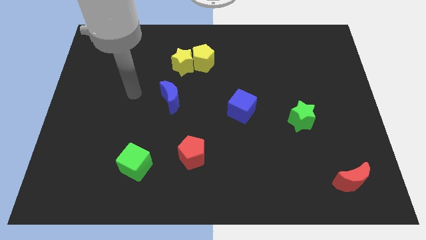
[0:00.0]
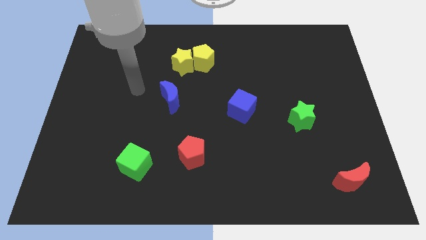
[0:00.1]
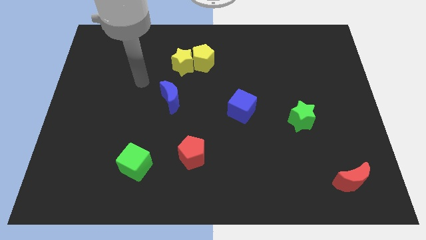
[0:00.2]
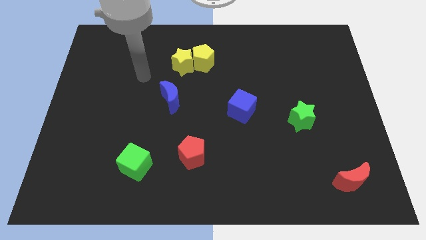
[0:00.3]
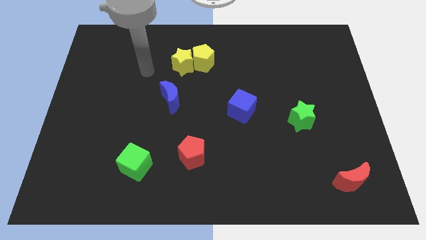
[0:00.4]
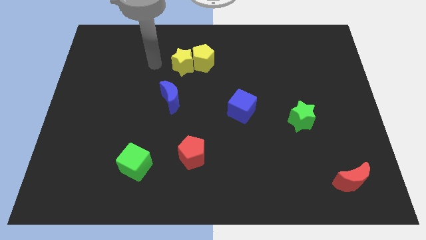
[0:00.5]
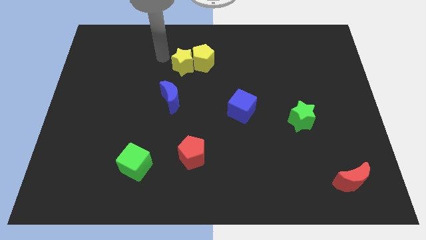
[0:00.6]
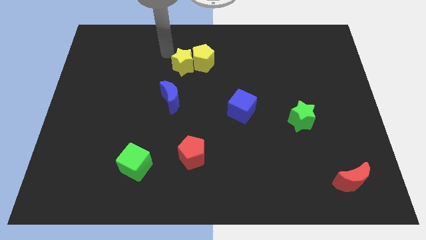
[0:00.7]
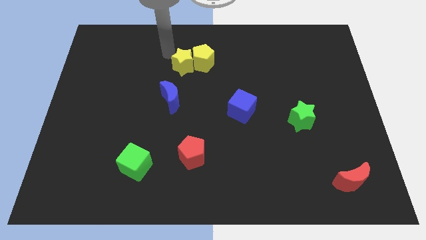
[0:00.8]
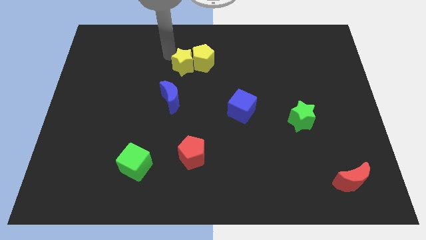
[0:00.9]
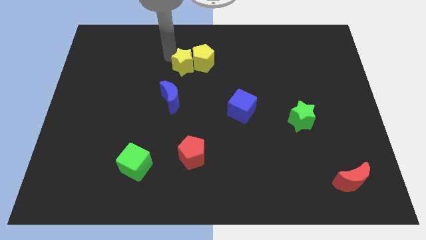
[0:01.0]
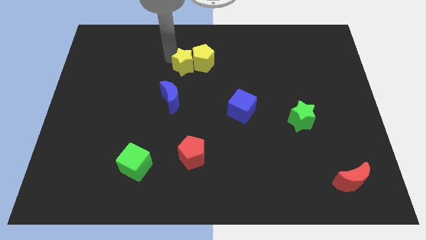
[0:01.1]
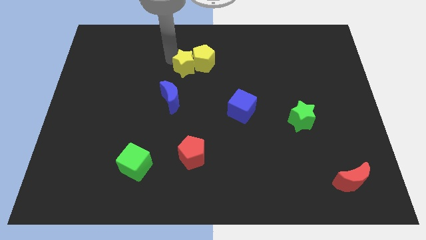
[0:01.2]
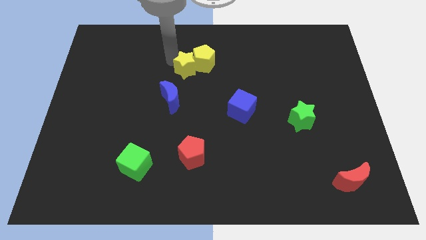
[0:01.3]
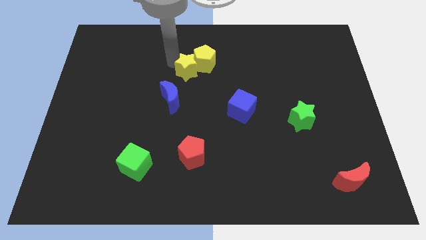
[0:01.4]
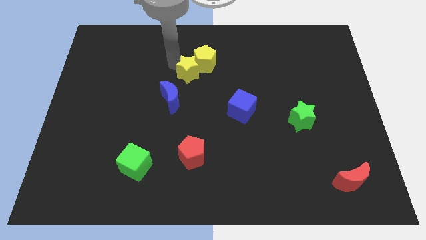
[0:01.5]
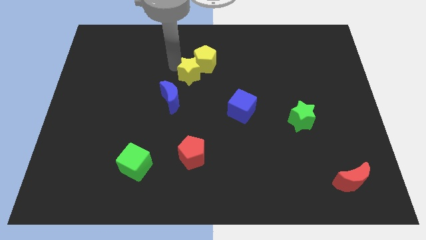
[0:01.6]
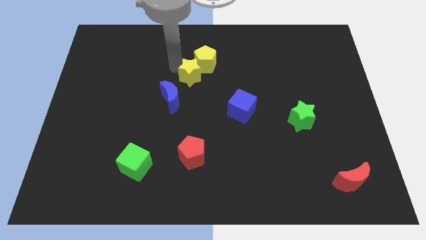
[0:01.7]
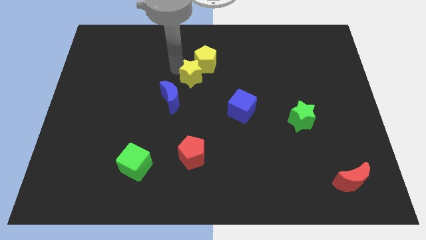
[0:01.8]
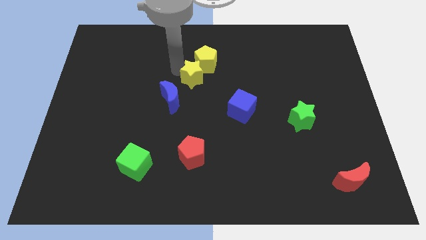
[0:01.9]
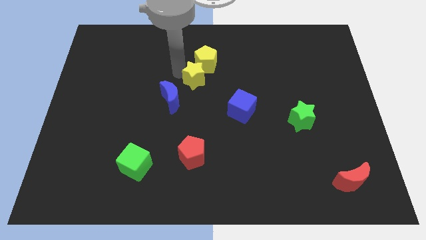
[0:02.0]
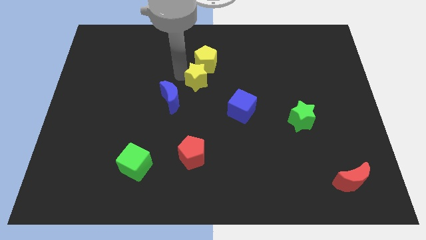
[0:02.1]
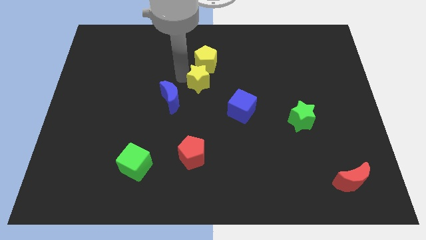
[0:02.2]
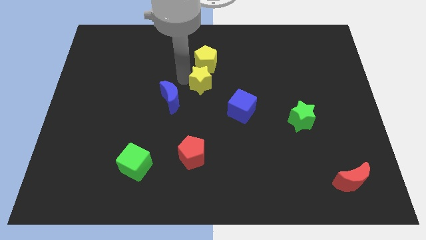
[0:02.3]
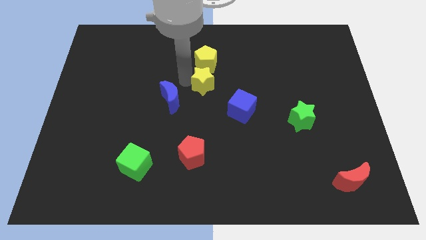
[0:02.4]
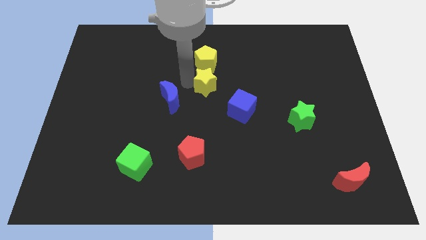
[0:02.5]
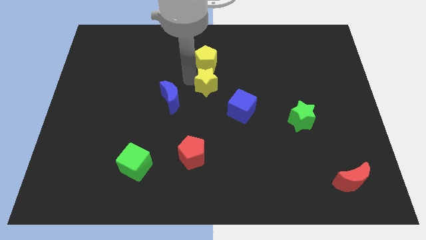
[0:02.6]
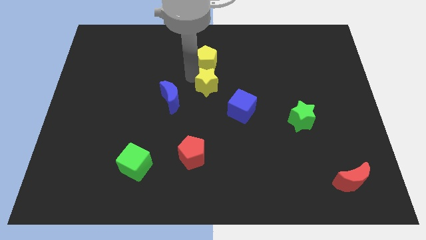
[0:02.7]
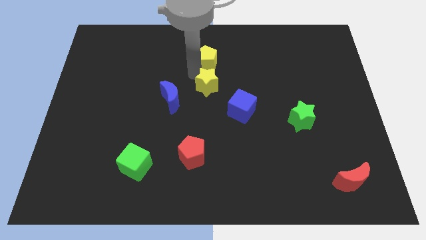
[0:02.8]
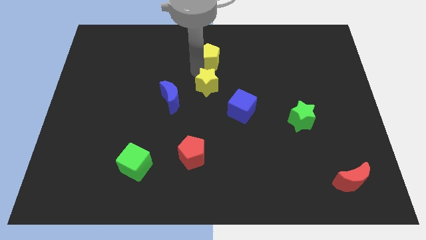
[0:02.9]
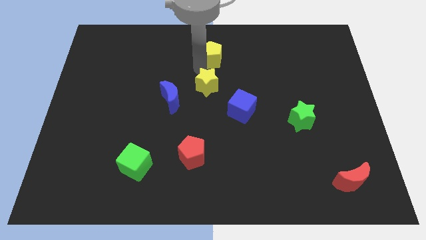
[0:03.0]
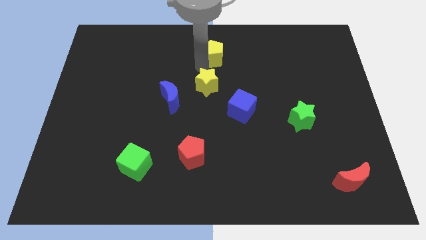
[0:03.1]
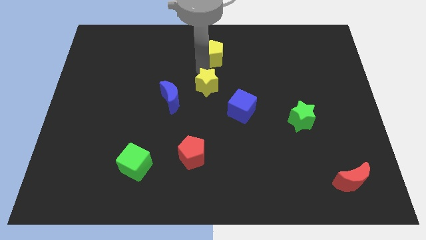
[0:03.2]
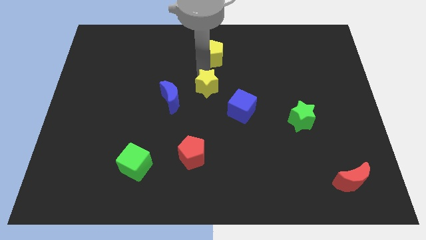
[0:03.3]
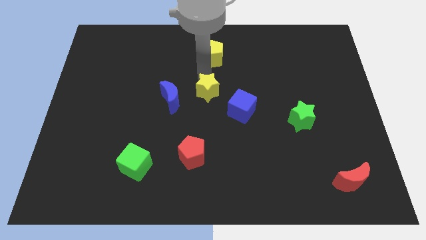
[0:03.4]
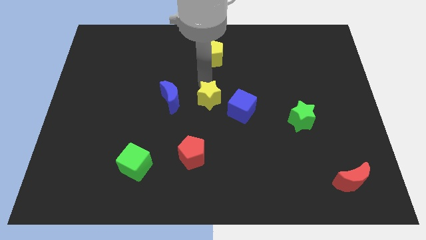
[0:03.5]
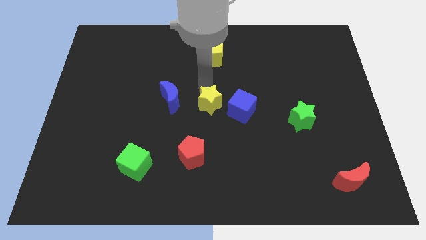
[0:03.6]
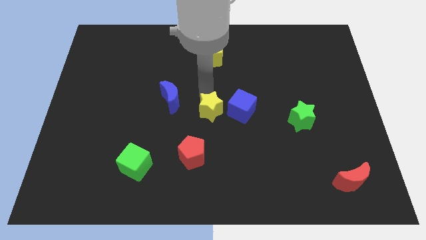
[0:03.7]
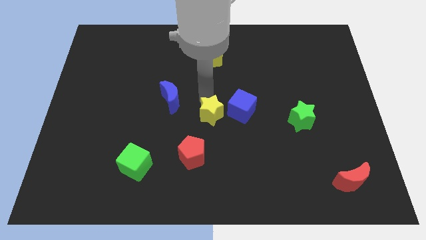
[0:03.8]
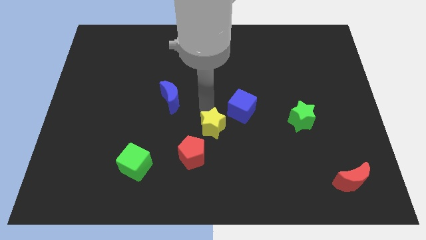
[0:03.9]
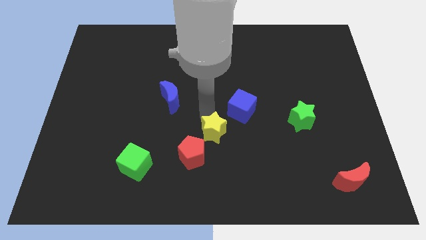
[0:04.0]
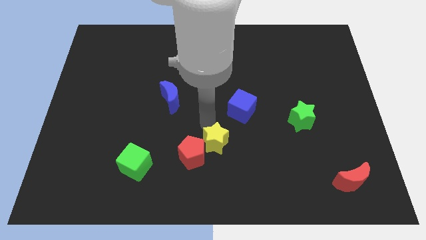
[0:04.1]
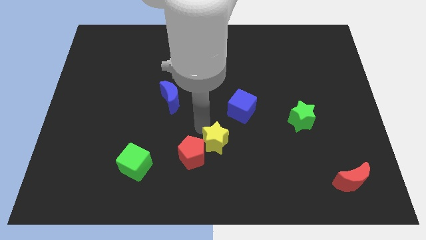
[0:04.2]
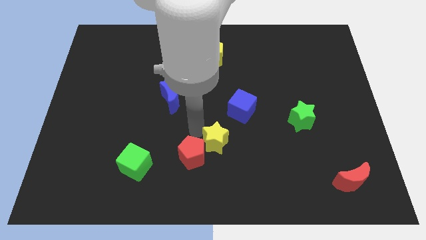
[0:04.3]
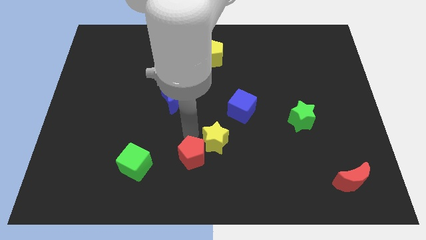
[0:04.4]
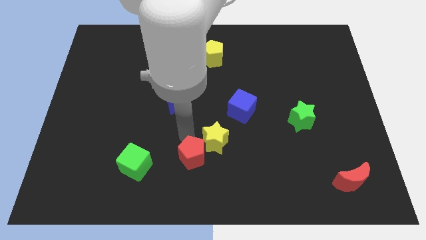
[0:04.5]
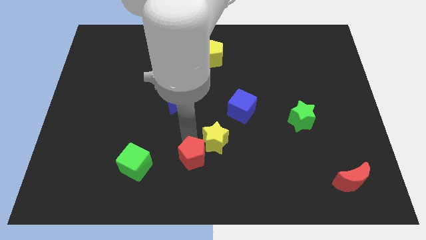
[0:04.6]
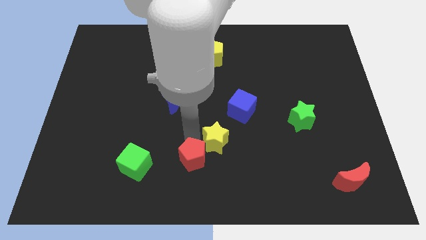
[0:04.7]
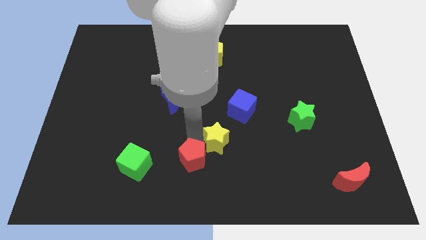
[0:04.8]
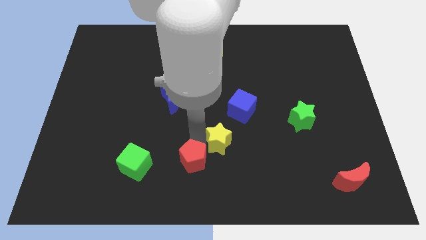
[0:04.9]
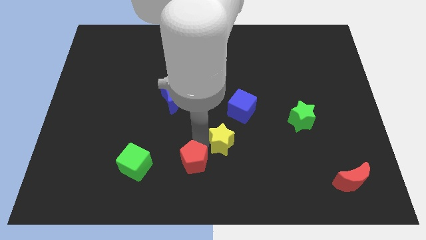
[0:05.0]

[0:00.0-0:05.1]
move the yellow star below the blue cube

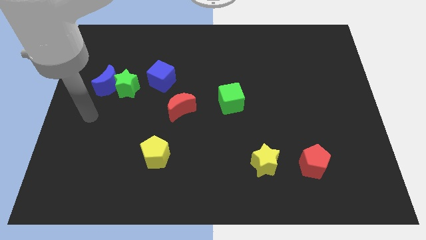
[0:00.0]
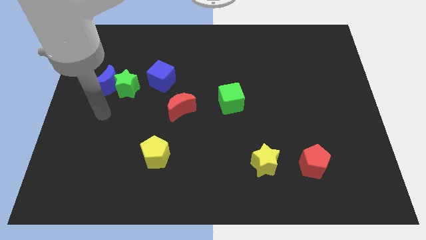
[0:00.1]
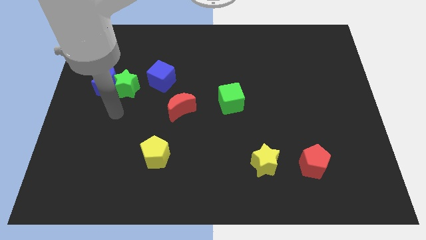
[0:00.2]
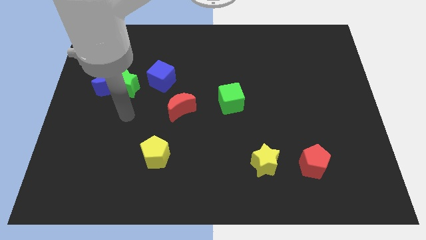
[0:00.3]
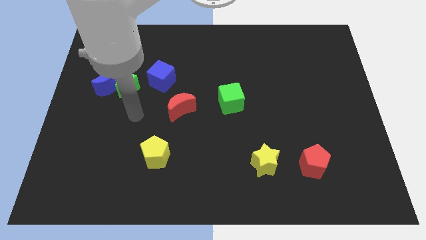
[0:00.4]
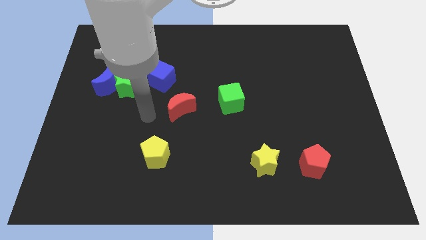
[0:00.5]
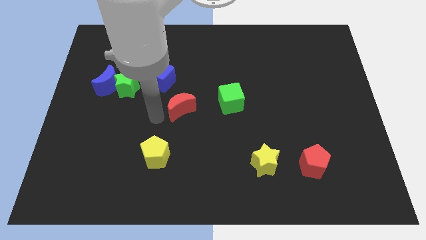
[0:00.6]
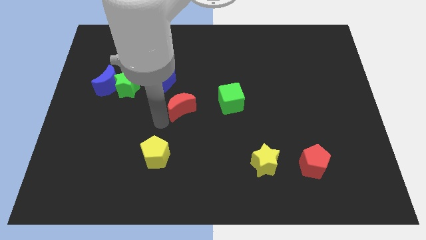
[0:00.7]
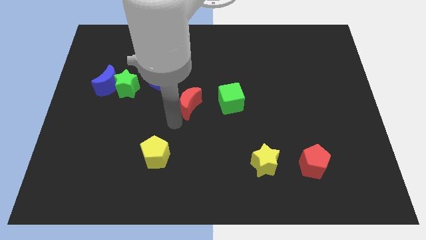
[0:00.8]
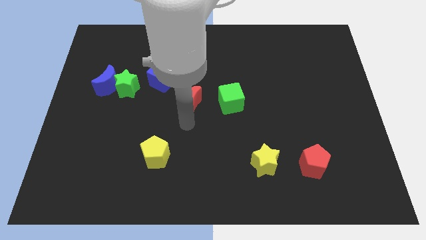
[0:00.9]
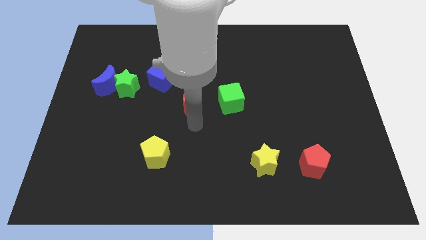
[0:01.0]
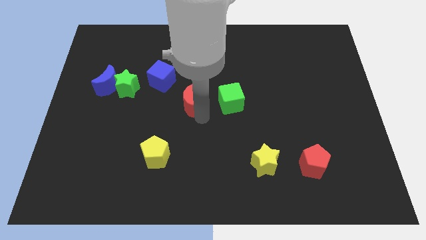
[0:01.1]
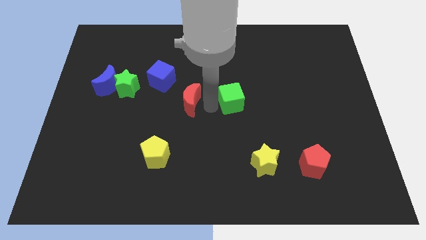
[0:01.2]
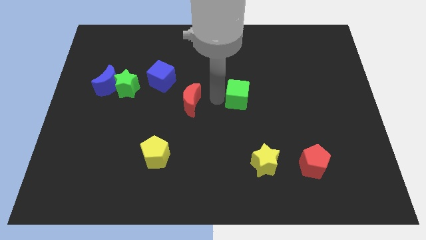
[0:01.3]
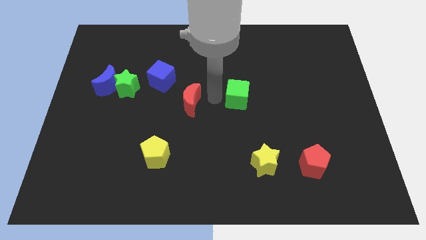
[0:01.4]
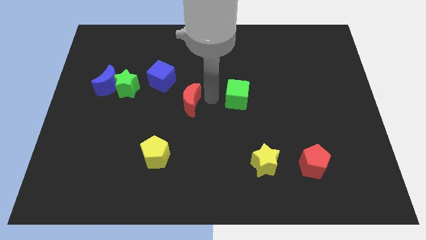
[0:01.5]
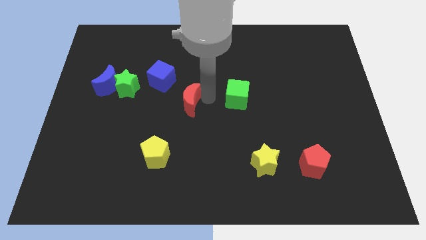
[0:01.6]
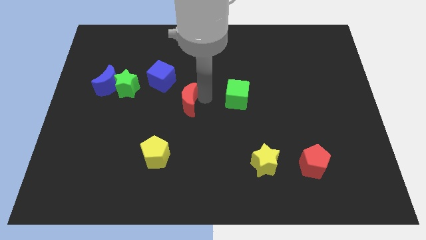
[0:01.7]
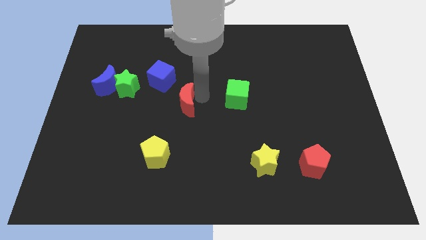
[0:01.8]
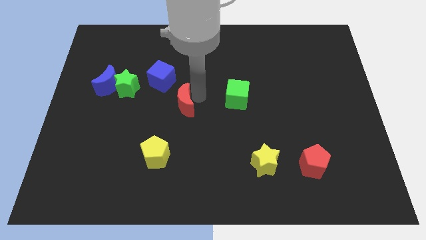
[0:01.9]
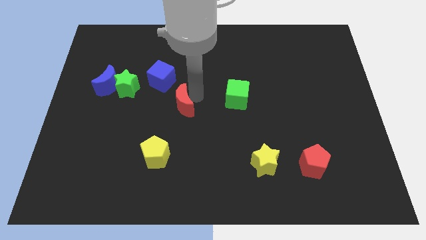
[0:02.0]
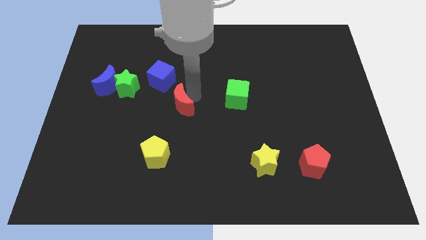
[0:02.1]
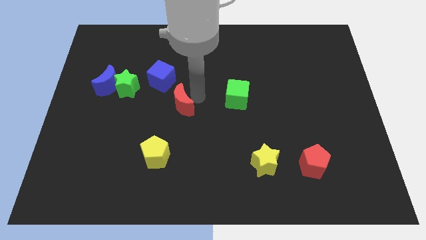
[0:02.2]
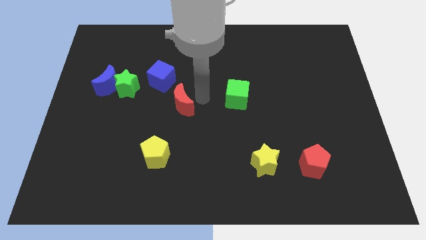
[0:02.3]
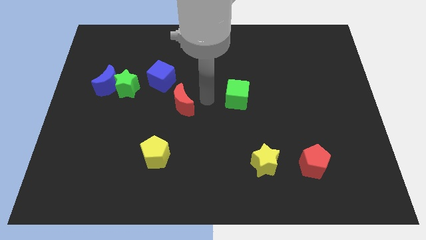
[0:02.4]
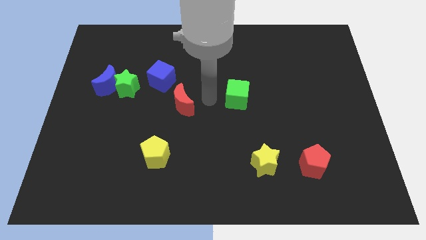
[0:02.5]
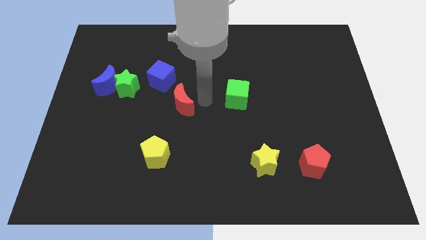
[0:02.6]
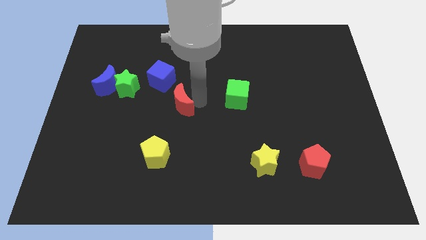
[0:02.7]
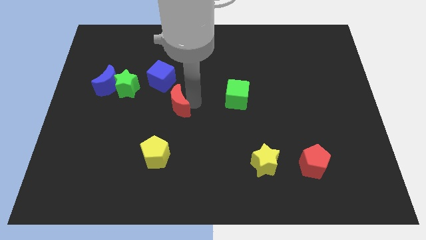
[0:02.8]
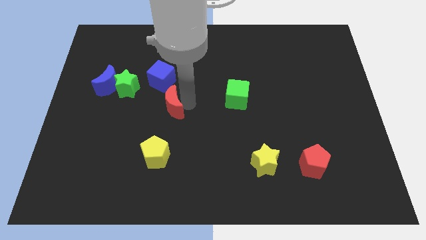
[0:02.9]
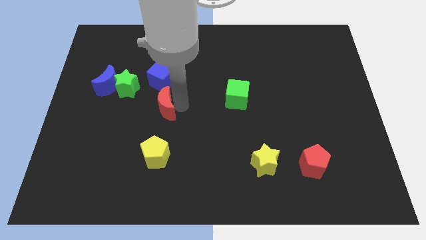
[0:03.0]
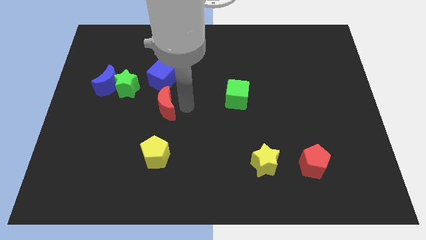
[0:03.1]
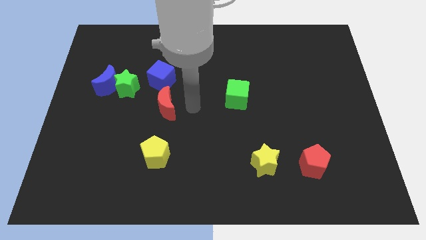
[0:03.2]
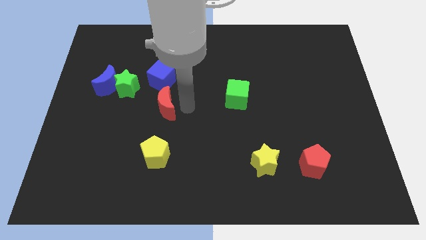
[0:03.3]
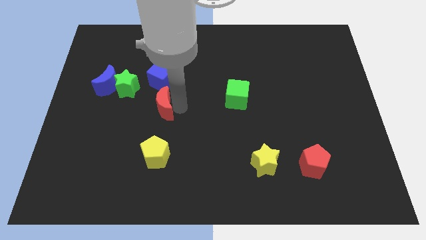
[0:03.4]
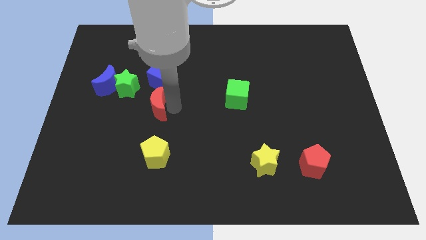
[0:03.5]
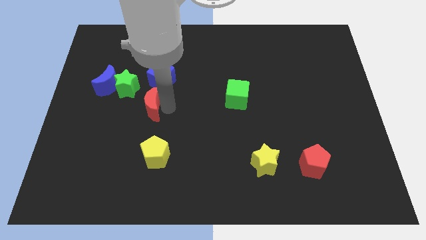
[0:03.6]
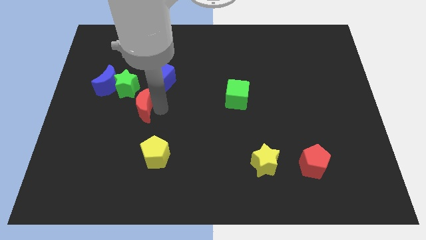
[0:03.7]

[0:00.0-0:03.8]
slide the red moon diagonally down and to the right of the blue moon
